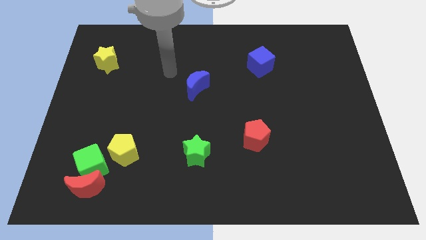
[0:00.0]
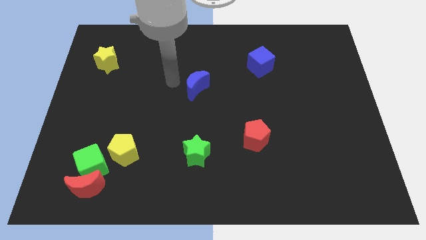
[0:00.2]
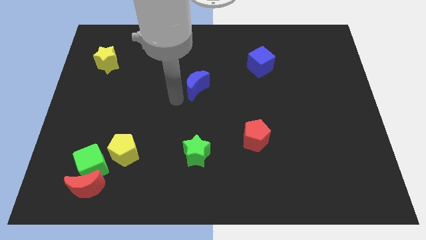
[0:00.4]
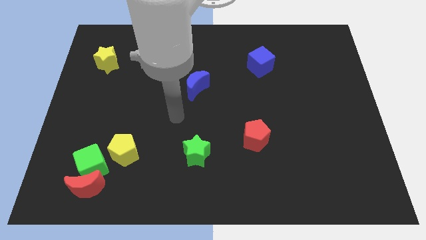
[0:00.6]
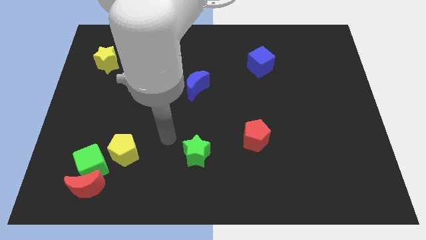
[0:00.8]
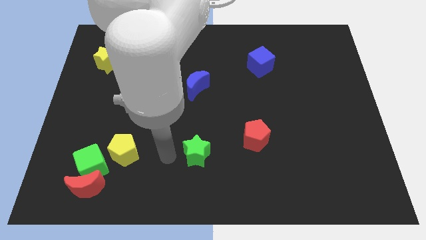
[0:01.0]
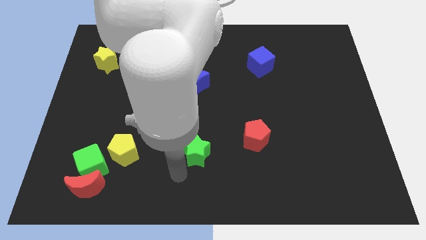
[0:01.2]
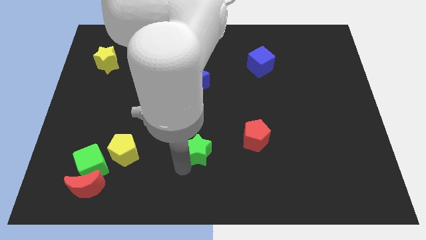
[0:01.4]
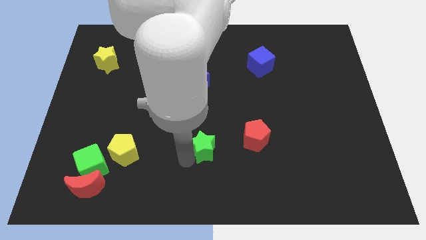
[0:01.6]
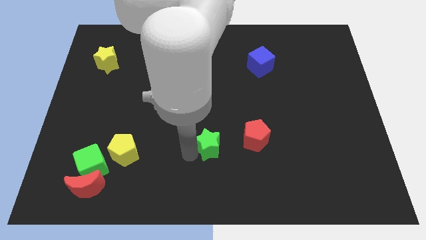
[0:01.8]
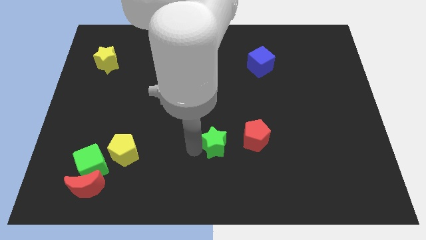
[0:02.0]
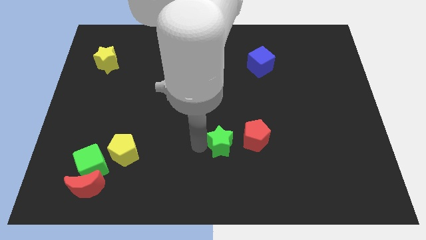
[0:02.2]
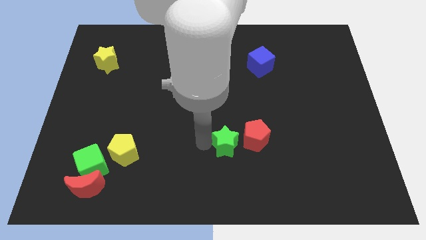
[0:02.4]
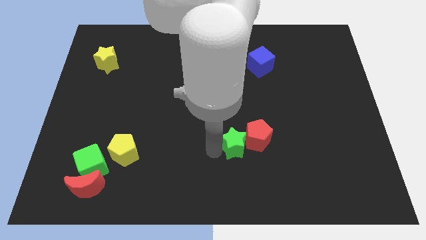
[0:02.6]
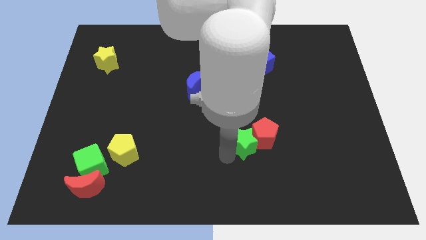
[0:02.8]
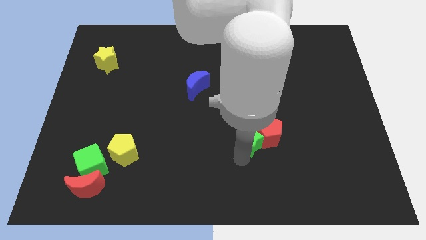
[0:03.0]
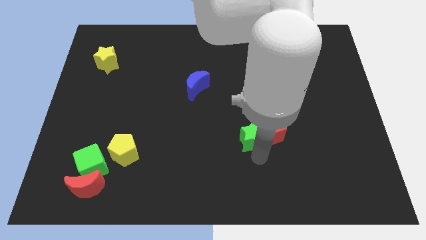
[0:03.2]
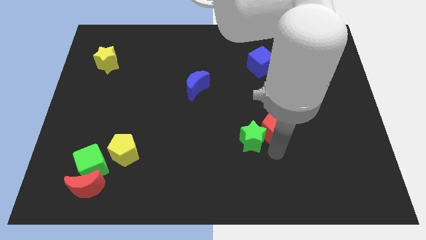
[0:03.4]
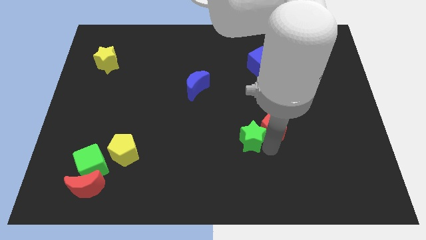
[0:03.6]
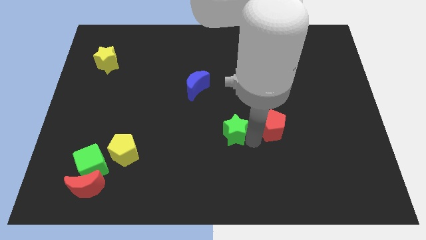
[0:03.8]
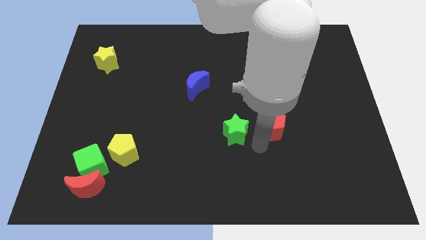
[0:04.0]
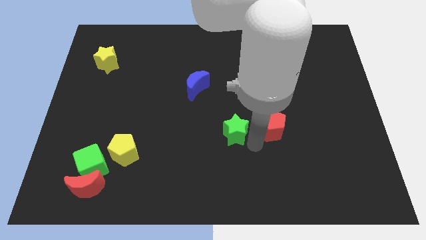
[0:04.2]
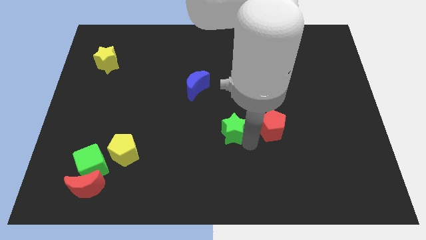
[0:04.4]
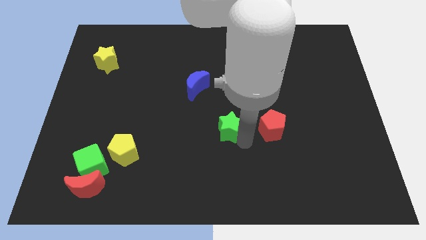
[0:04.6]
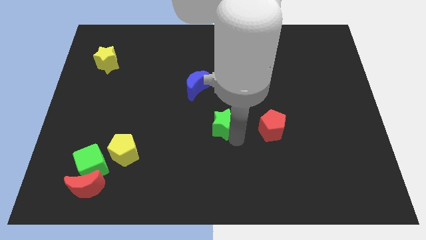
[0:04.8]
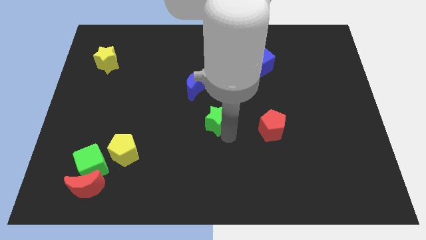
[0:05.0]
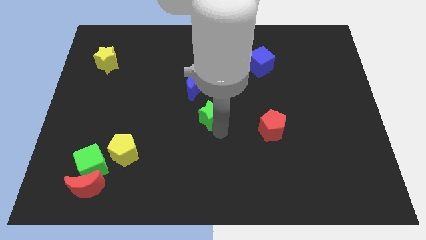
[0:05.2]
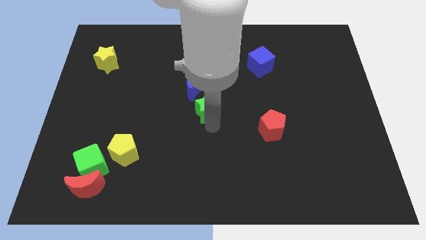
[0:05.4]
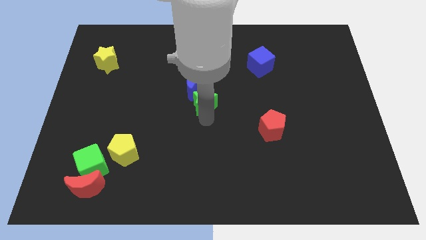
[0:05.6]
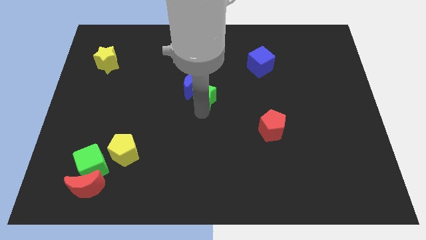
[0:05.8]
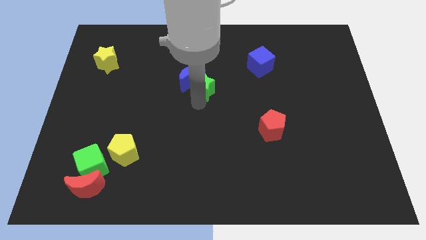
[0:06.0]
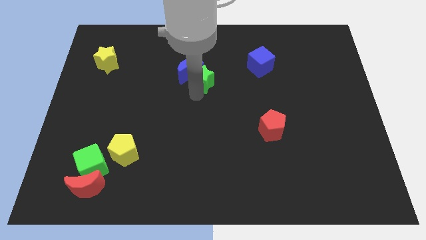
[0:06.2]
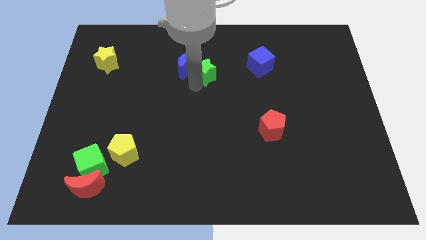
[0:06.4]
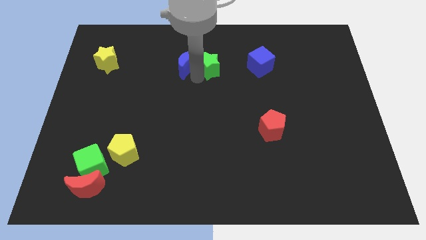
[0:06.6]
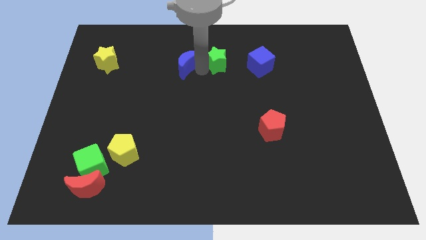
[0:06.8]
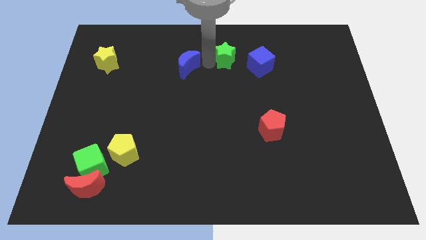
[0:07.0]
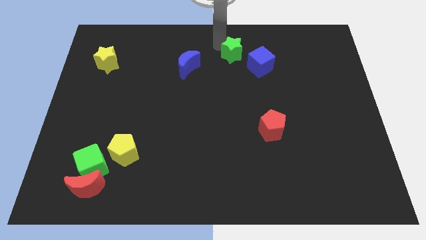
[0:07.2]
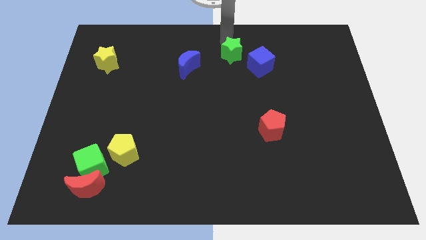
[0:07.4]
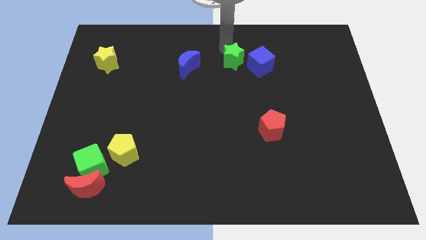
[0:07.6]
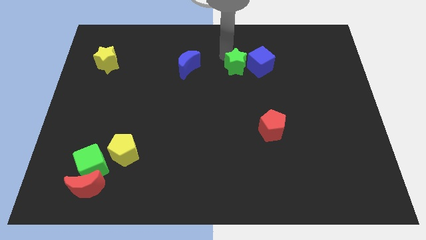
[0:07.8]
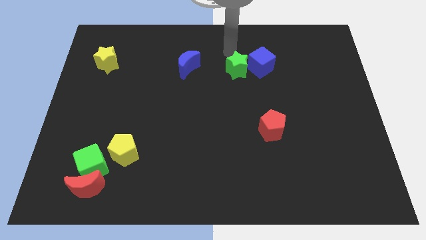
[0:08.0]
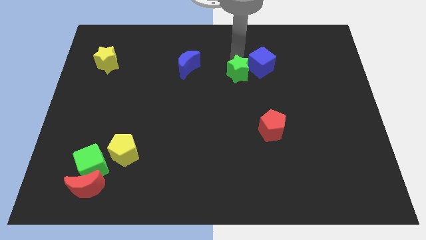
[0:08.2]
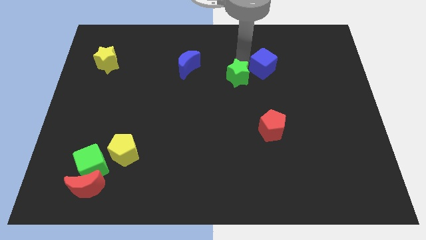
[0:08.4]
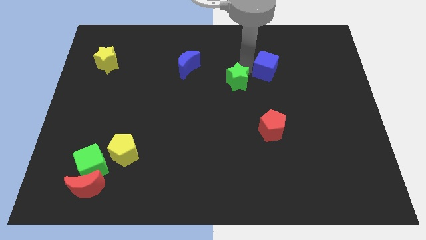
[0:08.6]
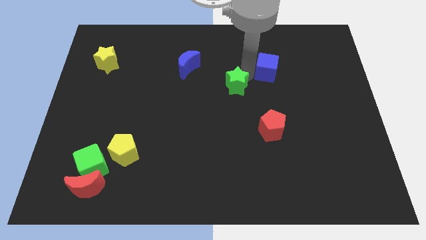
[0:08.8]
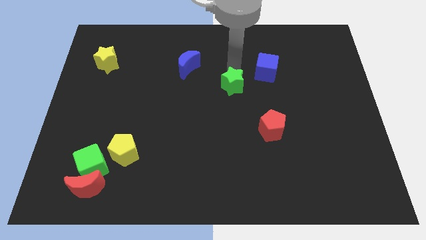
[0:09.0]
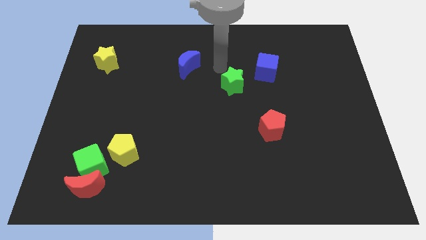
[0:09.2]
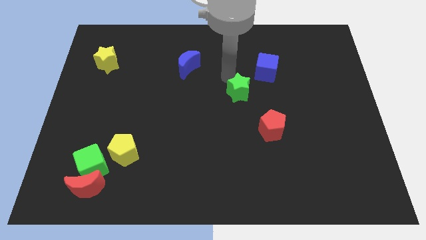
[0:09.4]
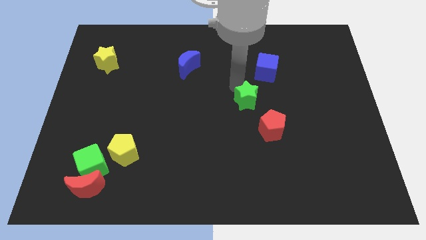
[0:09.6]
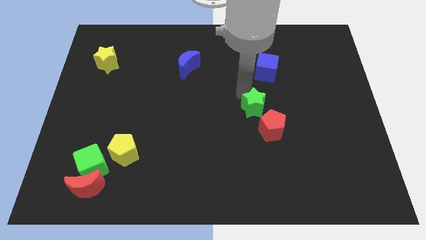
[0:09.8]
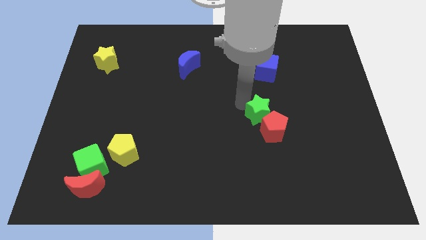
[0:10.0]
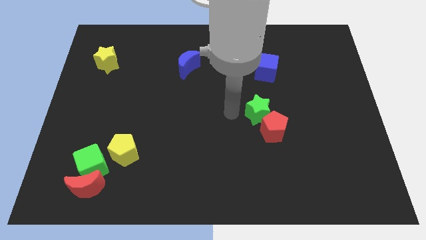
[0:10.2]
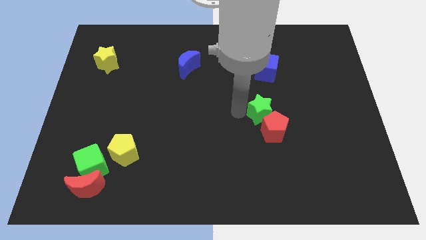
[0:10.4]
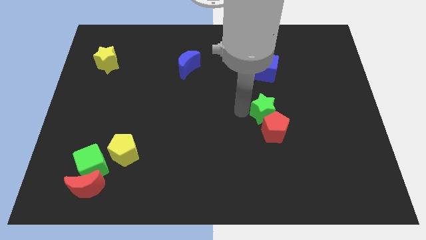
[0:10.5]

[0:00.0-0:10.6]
push the green star to the top right side of the red pentagon
